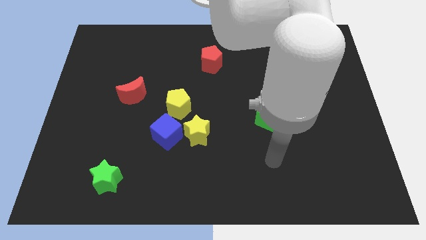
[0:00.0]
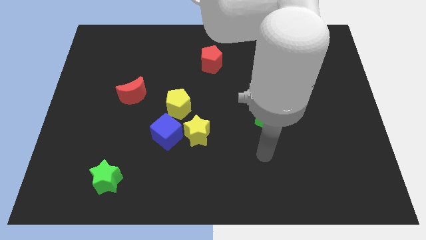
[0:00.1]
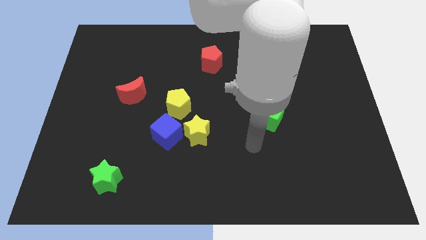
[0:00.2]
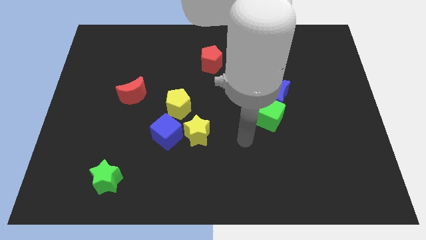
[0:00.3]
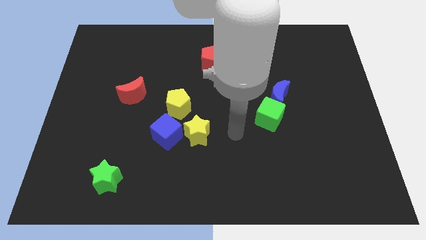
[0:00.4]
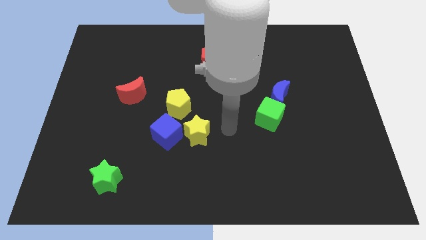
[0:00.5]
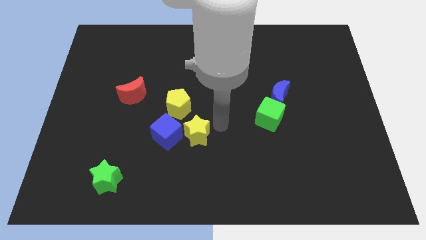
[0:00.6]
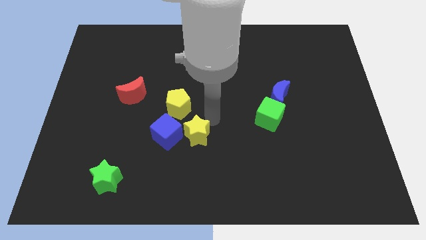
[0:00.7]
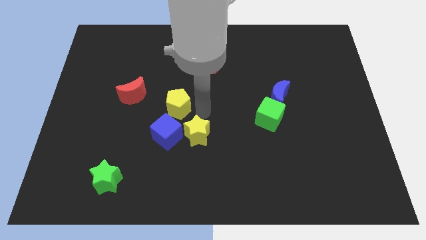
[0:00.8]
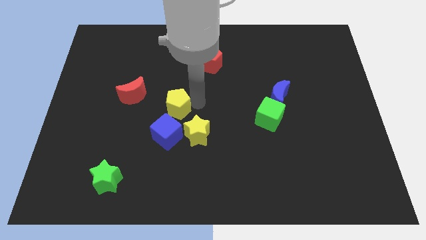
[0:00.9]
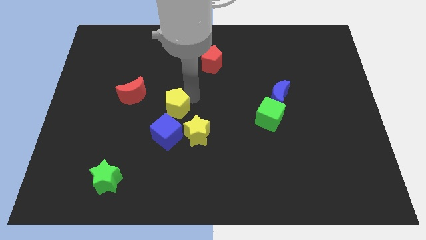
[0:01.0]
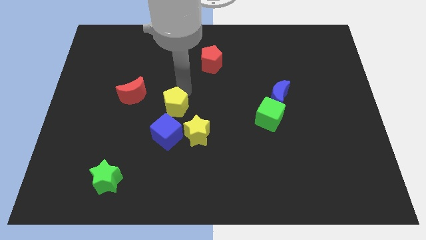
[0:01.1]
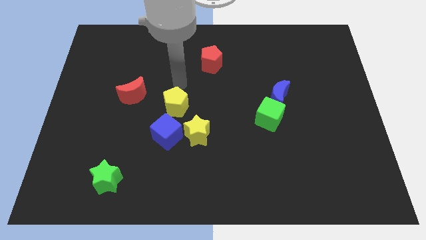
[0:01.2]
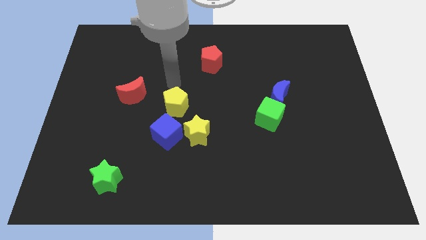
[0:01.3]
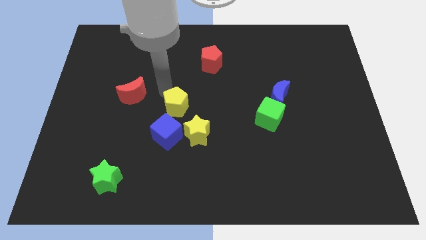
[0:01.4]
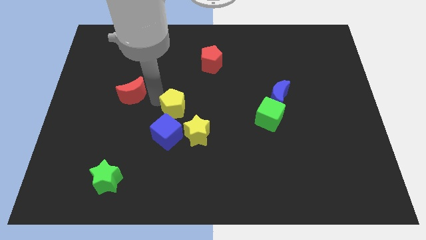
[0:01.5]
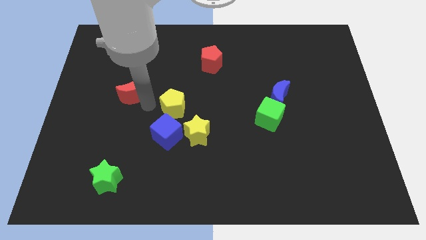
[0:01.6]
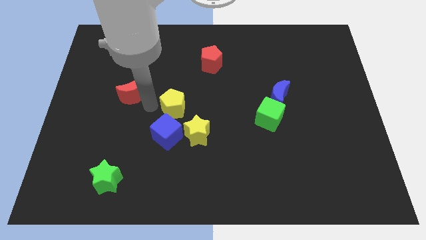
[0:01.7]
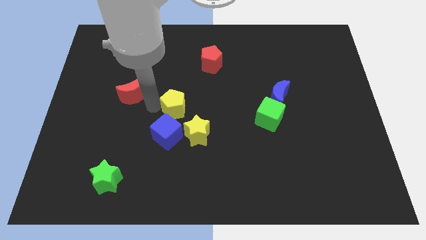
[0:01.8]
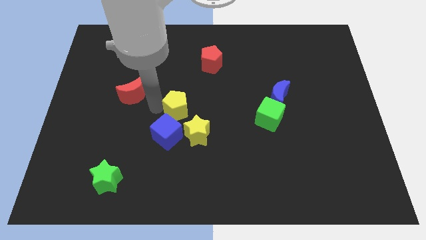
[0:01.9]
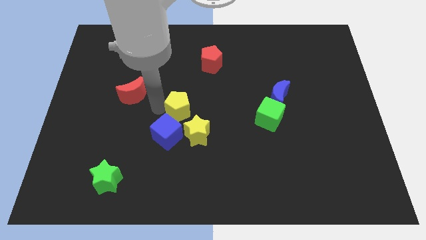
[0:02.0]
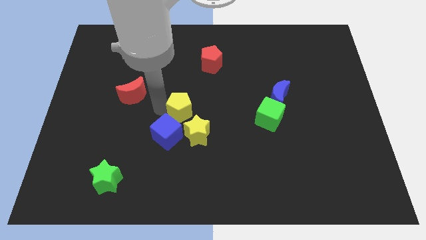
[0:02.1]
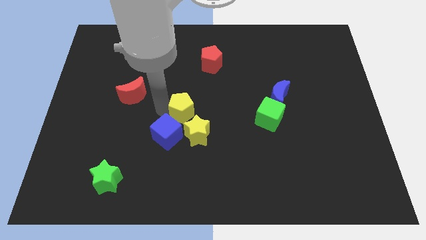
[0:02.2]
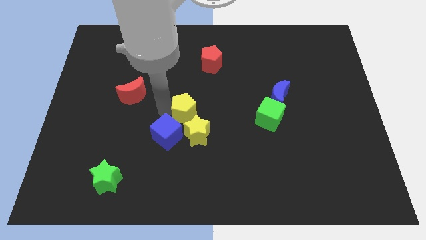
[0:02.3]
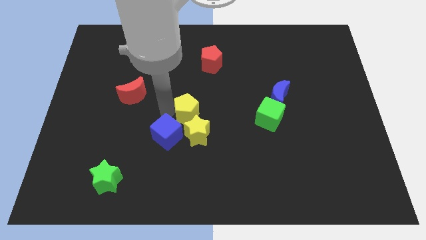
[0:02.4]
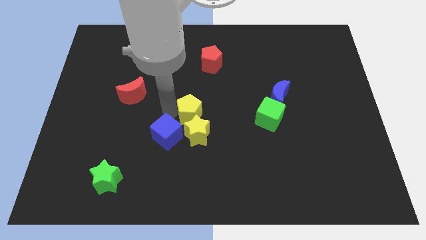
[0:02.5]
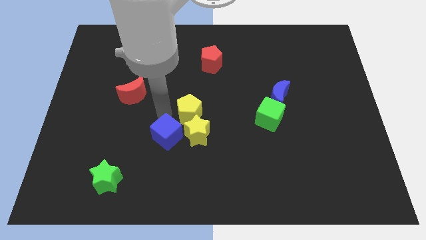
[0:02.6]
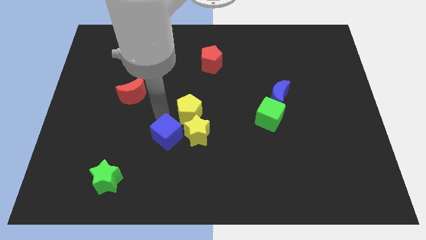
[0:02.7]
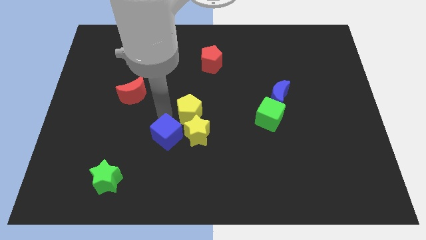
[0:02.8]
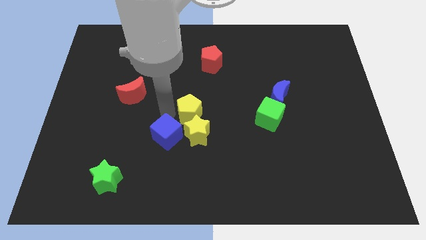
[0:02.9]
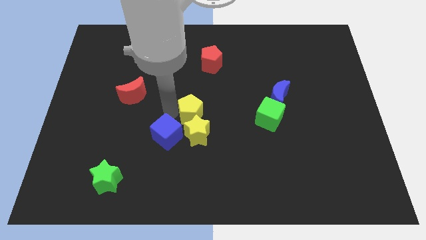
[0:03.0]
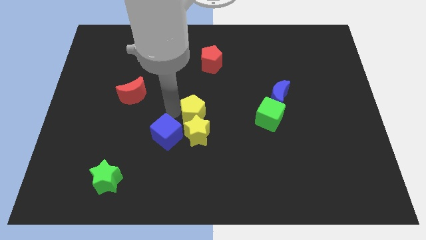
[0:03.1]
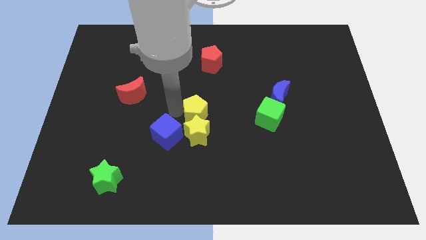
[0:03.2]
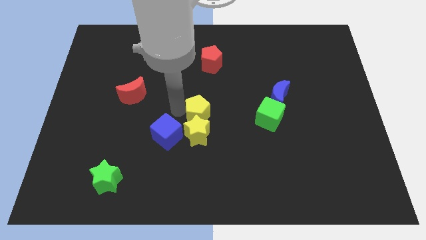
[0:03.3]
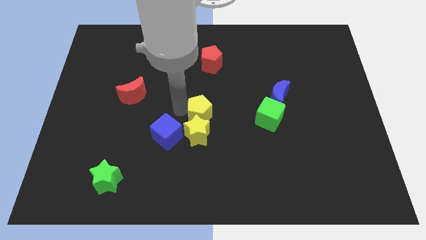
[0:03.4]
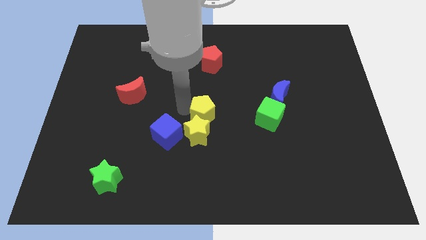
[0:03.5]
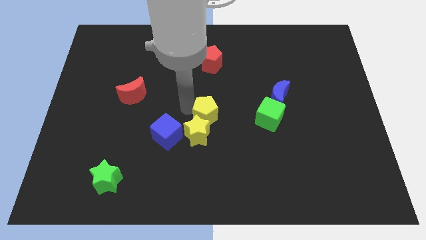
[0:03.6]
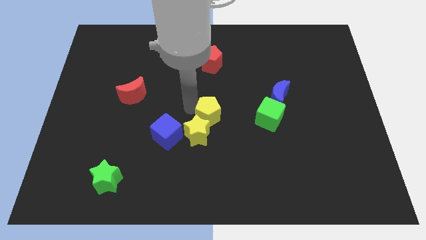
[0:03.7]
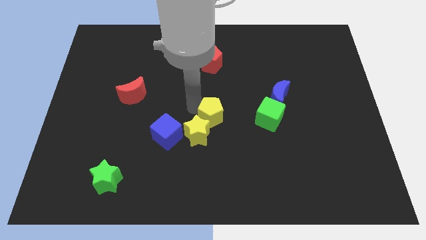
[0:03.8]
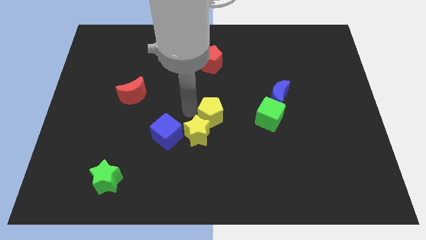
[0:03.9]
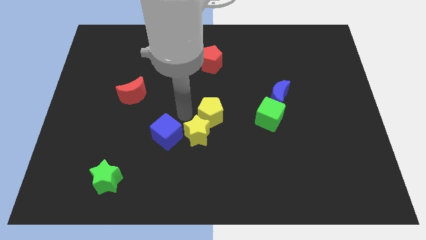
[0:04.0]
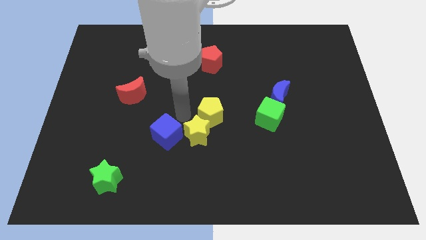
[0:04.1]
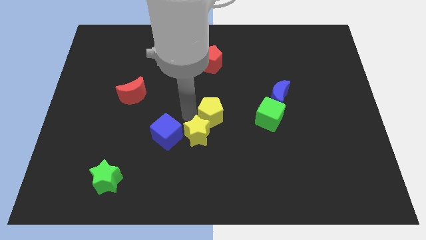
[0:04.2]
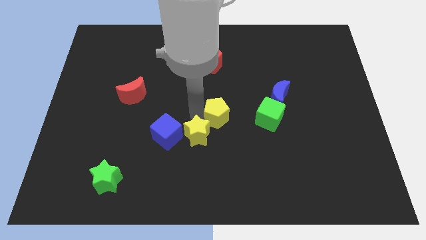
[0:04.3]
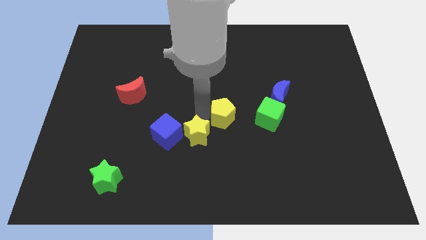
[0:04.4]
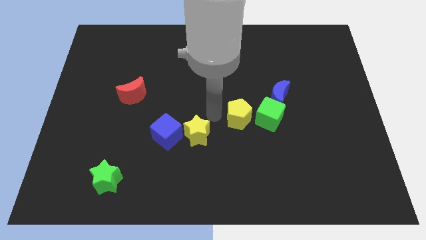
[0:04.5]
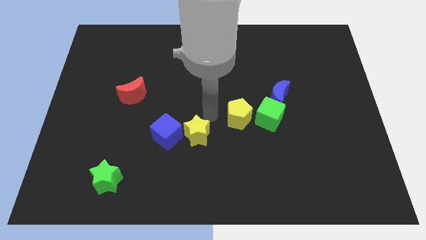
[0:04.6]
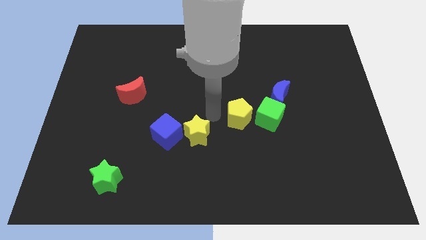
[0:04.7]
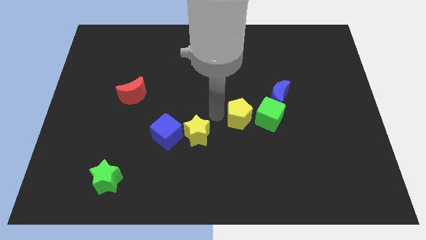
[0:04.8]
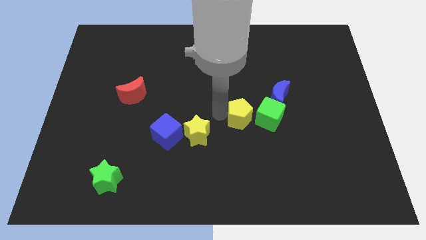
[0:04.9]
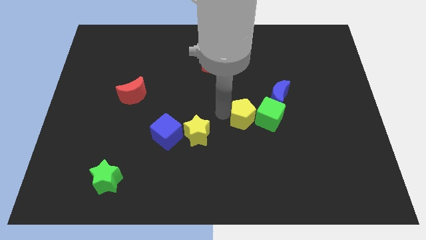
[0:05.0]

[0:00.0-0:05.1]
slide the yellow pentagon next to the green cube

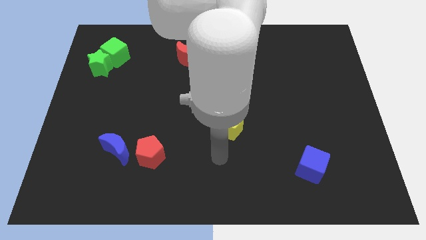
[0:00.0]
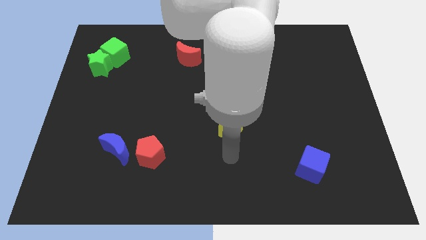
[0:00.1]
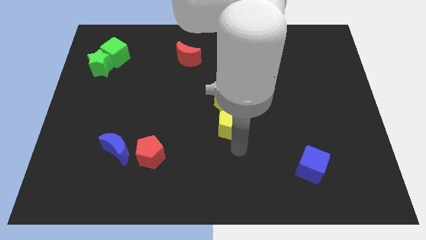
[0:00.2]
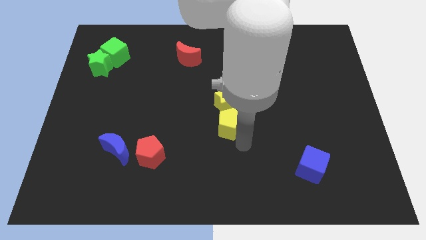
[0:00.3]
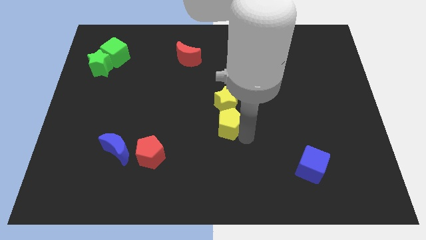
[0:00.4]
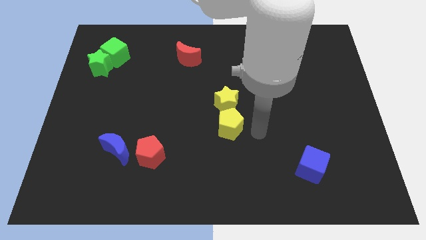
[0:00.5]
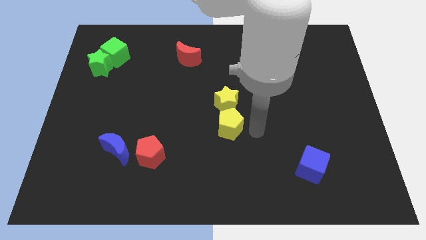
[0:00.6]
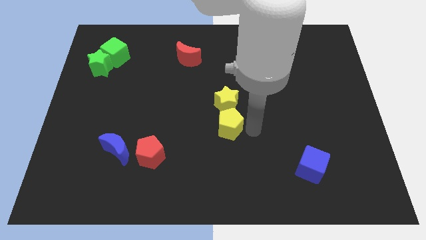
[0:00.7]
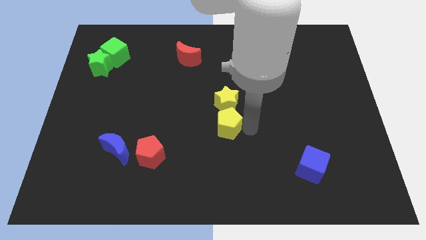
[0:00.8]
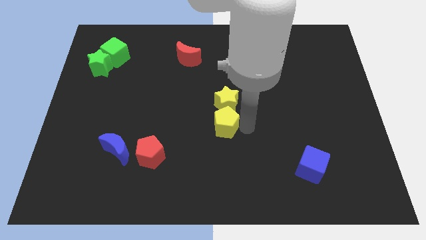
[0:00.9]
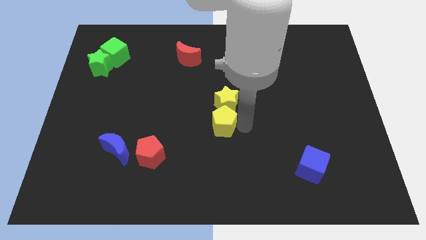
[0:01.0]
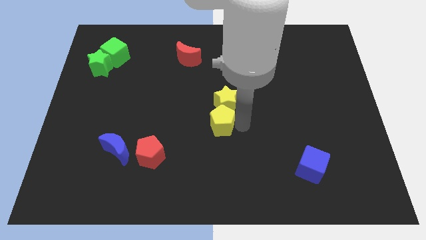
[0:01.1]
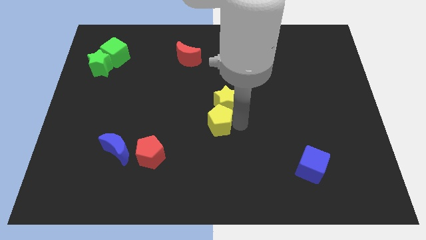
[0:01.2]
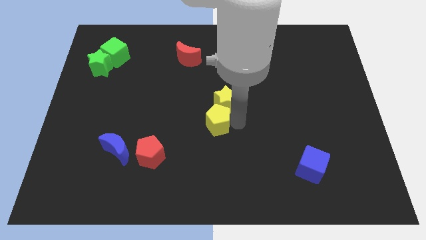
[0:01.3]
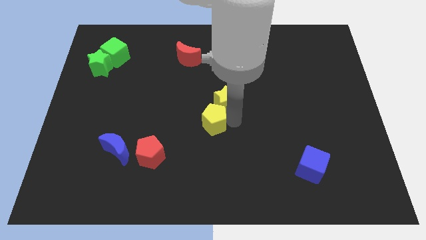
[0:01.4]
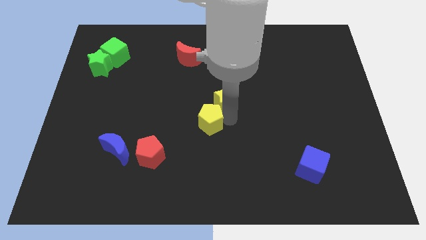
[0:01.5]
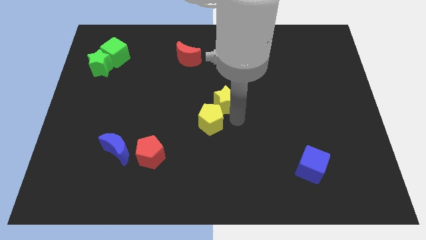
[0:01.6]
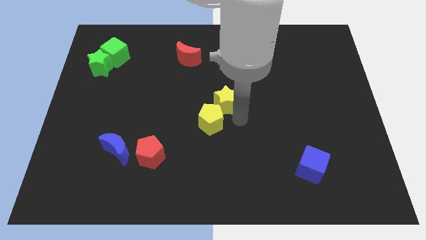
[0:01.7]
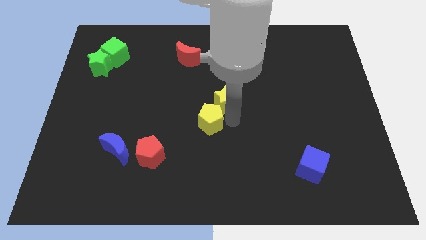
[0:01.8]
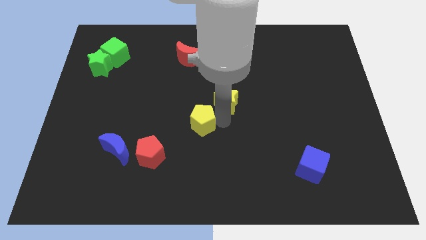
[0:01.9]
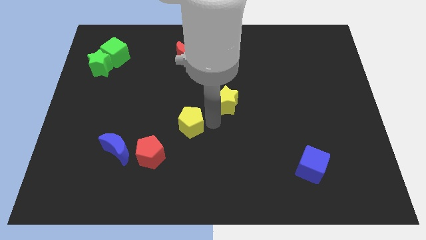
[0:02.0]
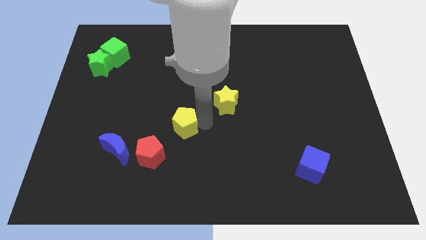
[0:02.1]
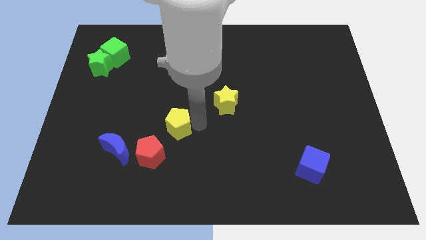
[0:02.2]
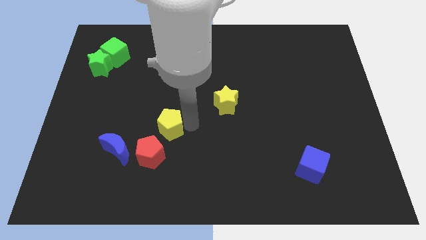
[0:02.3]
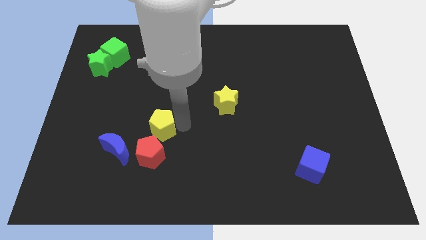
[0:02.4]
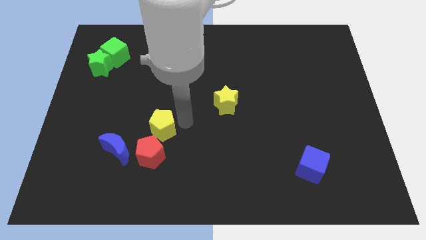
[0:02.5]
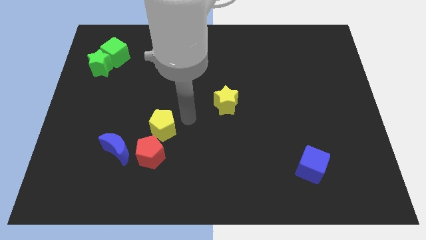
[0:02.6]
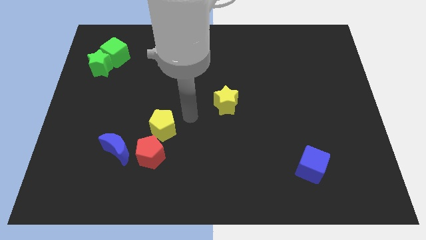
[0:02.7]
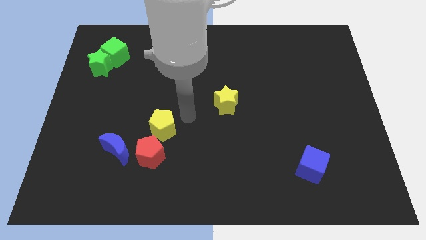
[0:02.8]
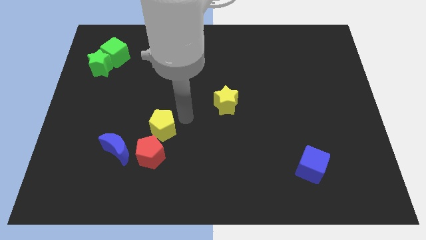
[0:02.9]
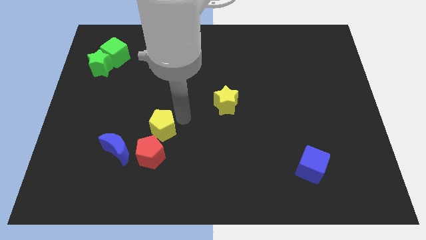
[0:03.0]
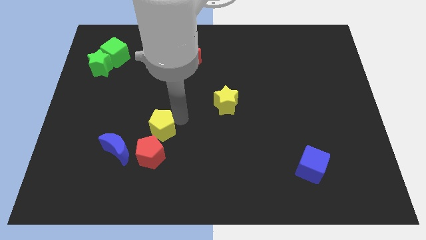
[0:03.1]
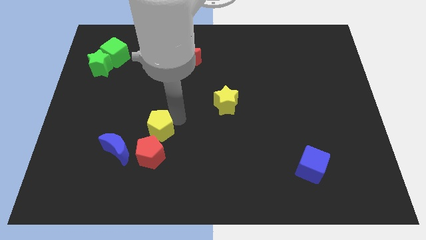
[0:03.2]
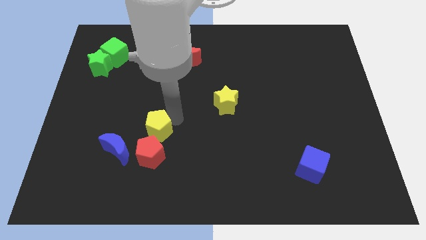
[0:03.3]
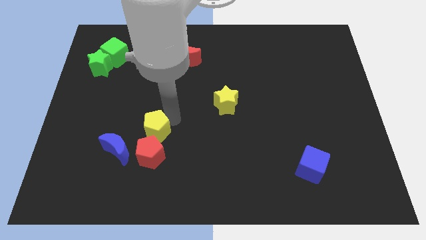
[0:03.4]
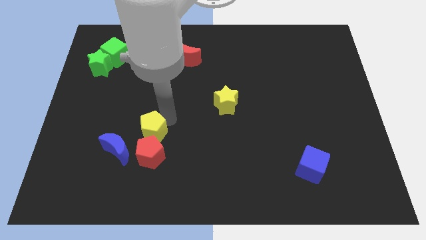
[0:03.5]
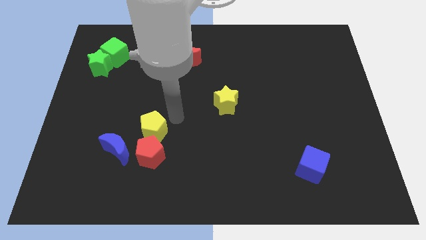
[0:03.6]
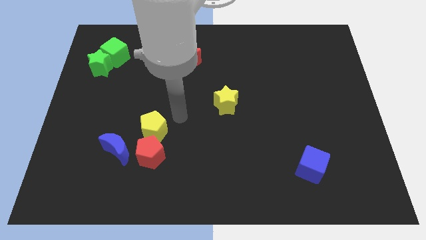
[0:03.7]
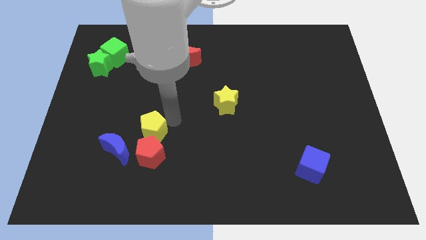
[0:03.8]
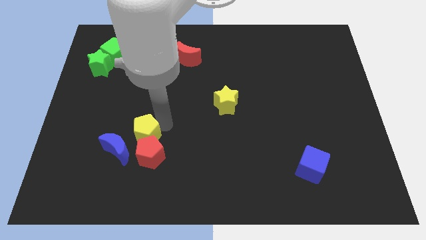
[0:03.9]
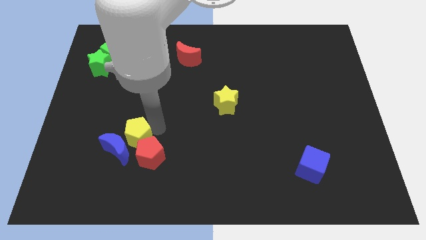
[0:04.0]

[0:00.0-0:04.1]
put the yellow pentagon close to the blue moon
